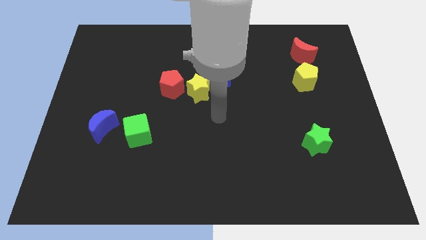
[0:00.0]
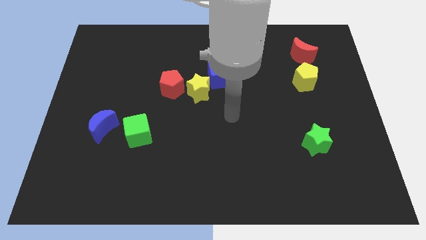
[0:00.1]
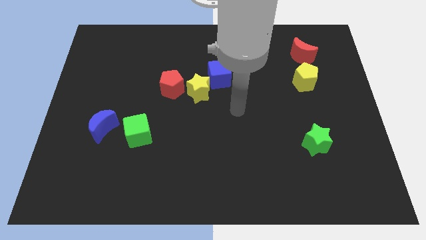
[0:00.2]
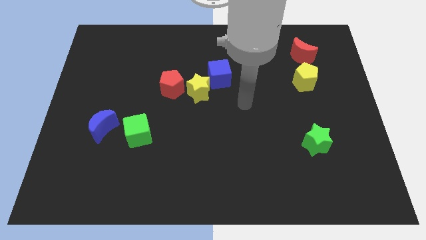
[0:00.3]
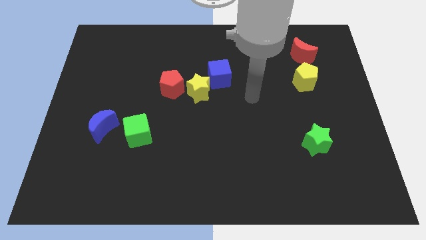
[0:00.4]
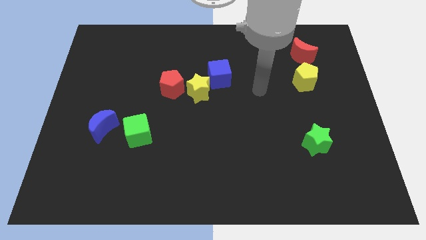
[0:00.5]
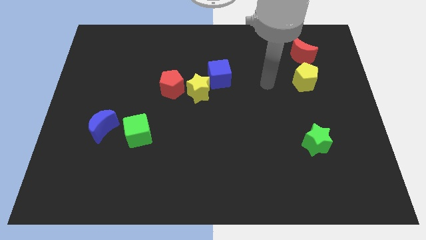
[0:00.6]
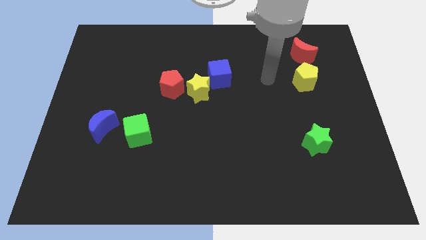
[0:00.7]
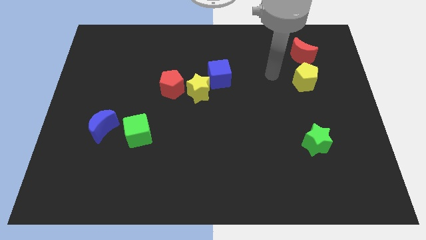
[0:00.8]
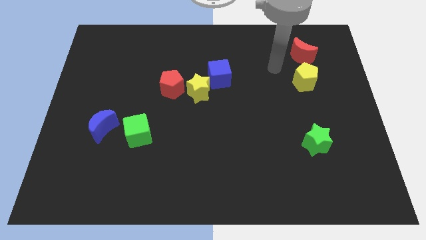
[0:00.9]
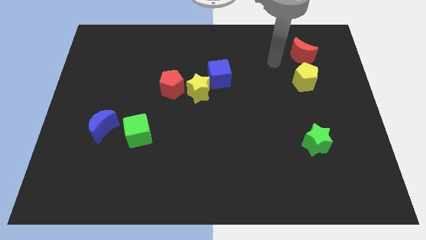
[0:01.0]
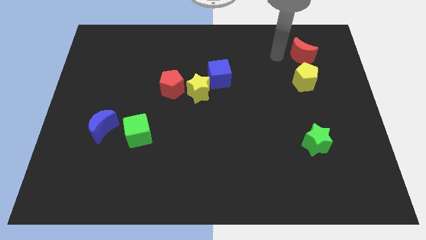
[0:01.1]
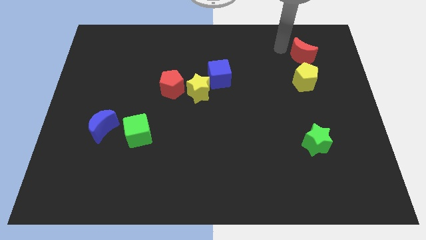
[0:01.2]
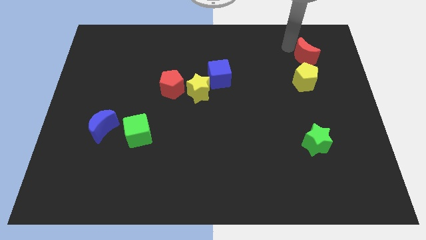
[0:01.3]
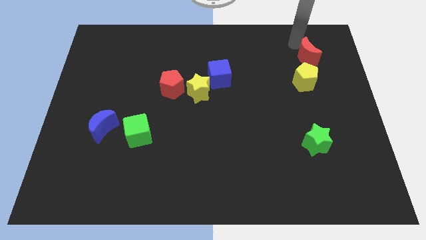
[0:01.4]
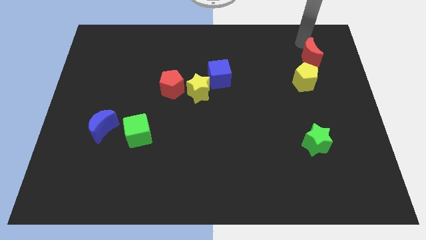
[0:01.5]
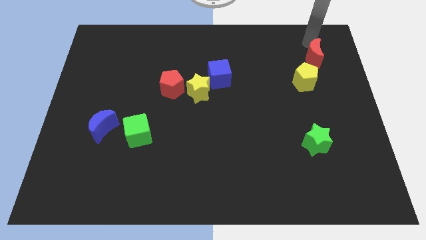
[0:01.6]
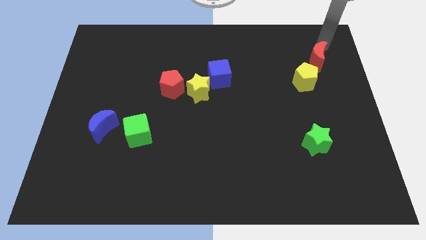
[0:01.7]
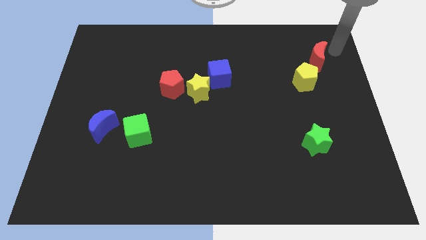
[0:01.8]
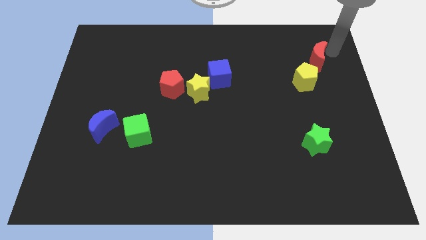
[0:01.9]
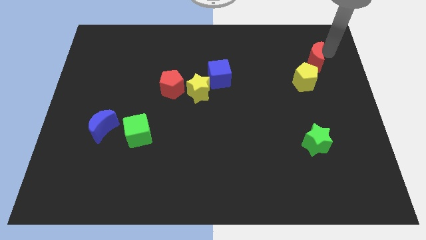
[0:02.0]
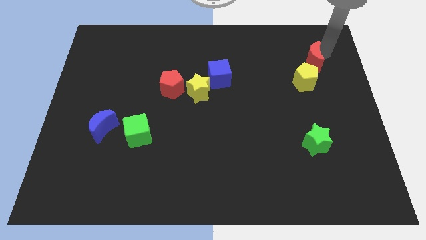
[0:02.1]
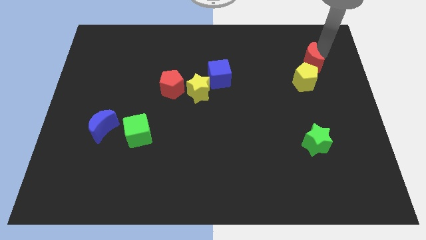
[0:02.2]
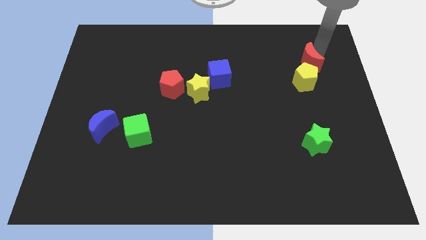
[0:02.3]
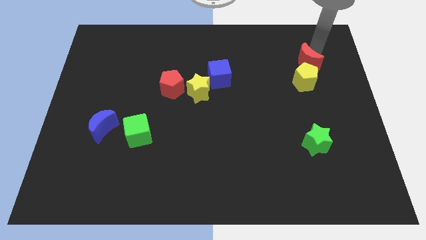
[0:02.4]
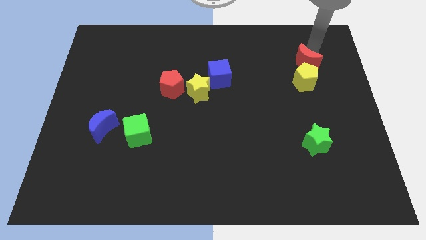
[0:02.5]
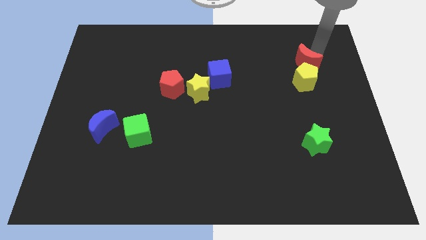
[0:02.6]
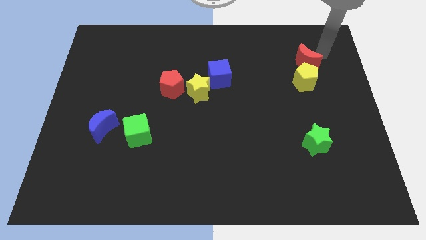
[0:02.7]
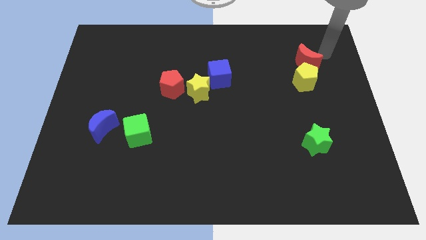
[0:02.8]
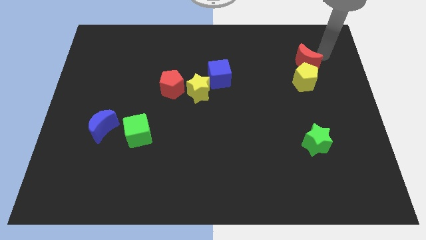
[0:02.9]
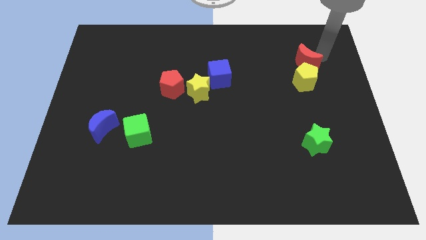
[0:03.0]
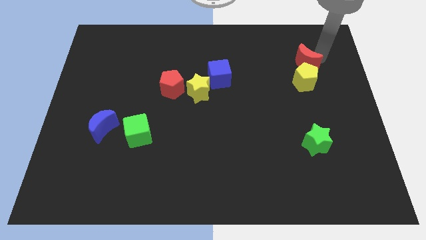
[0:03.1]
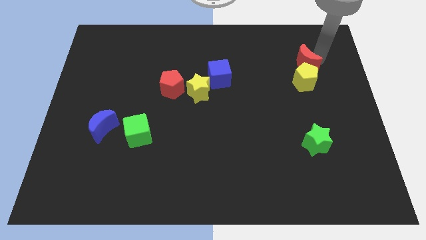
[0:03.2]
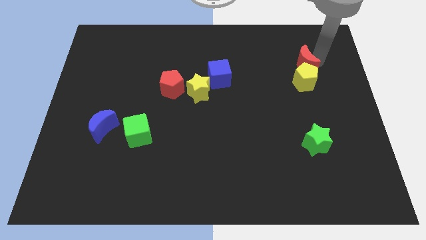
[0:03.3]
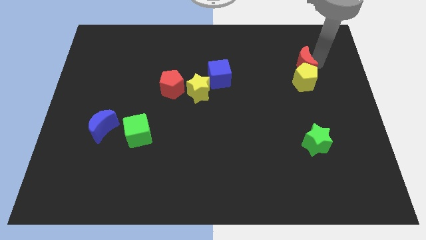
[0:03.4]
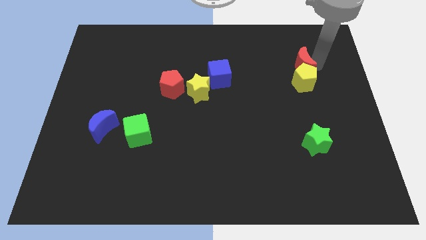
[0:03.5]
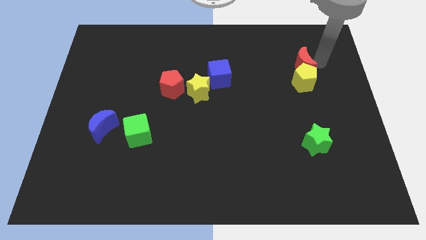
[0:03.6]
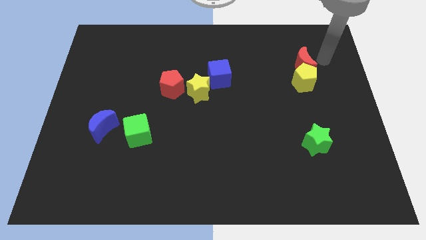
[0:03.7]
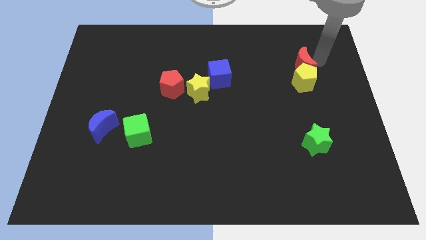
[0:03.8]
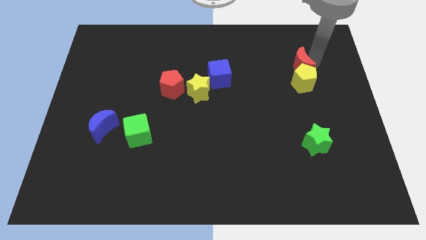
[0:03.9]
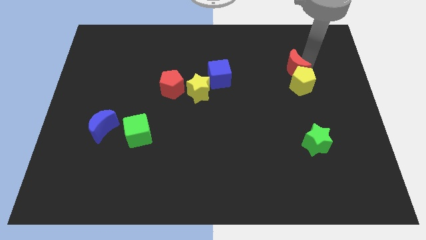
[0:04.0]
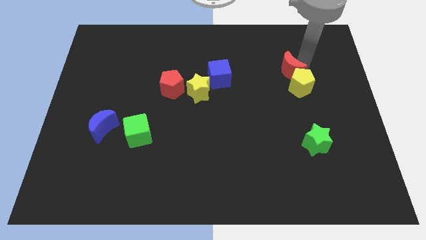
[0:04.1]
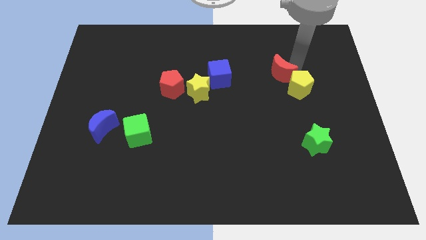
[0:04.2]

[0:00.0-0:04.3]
slightly push the red moon downwards and left

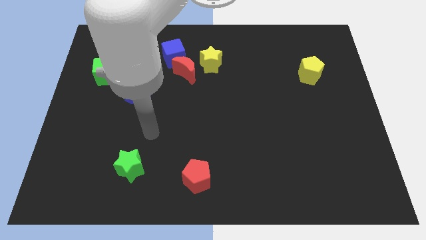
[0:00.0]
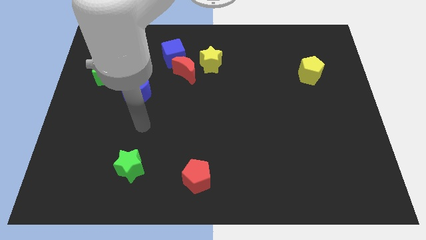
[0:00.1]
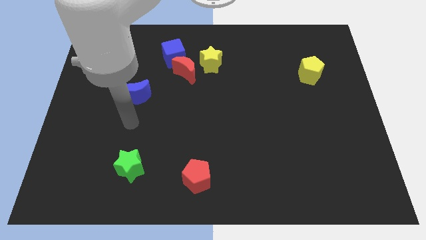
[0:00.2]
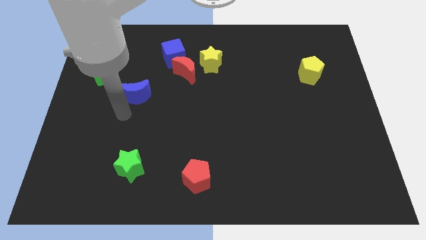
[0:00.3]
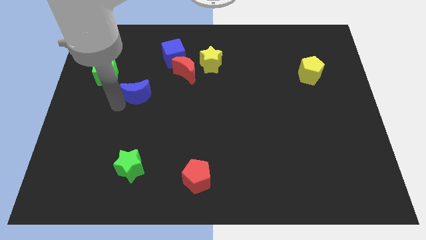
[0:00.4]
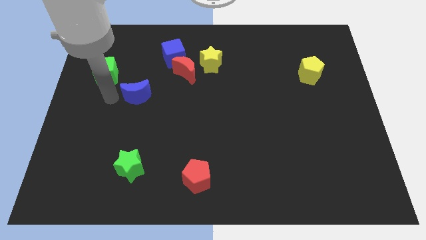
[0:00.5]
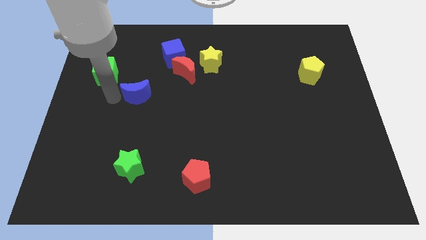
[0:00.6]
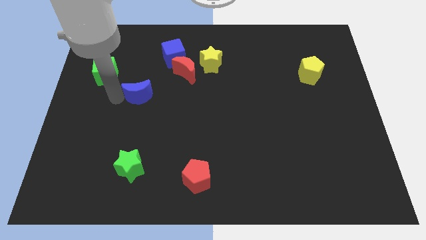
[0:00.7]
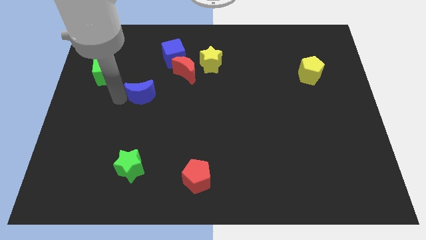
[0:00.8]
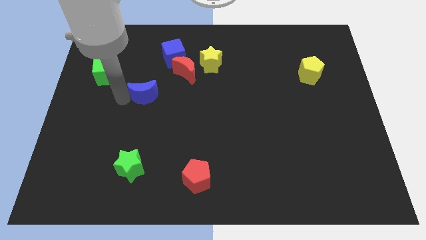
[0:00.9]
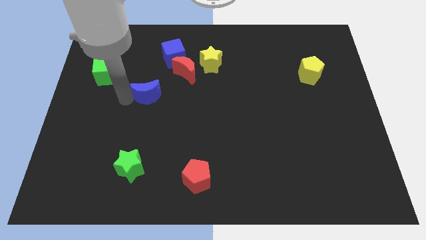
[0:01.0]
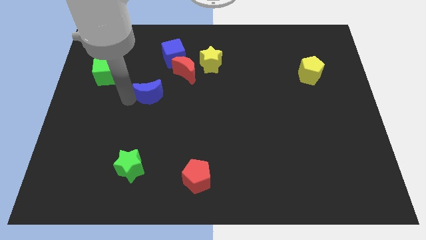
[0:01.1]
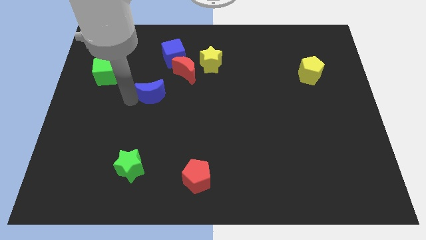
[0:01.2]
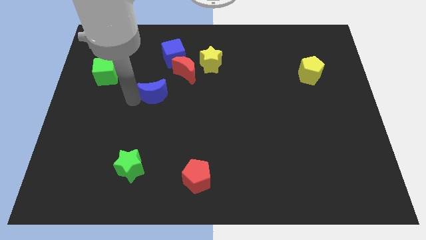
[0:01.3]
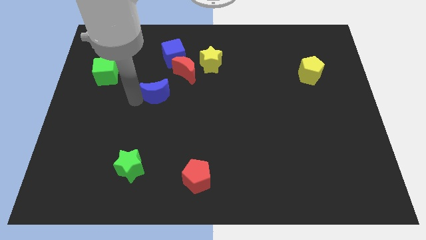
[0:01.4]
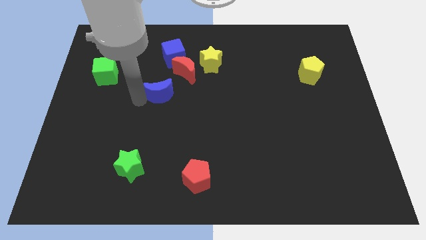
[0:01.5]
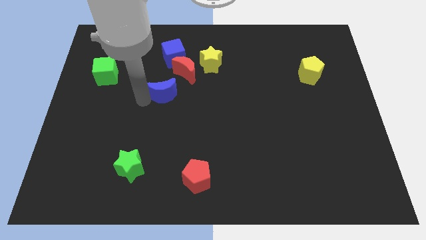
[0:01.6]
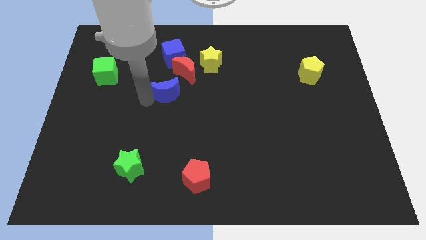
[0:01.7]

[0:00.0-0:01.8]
move the blue moon a little right

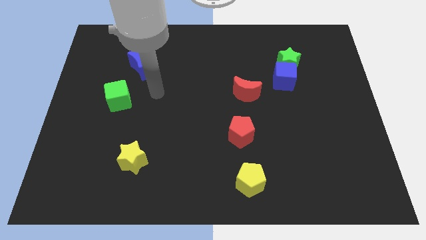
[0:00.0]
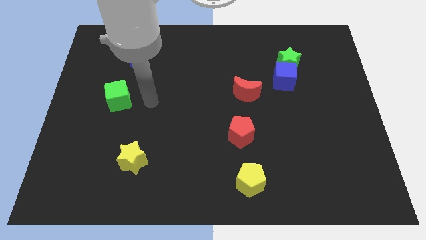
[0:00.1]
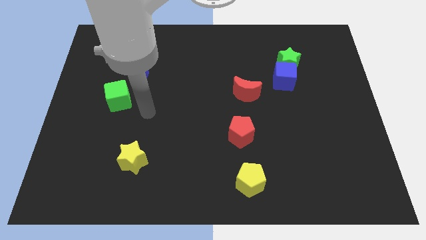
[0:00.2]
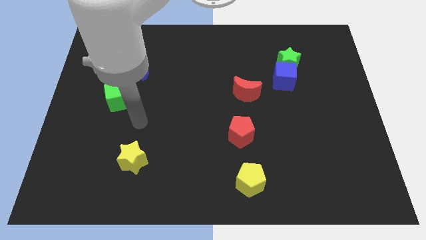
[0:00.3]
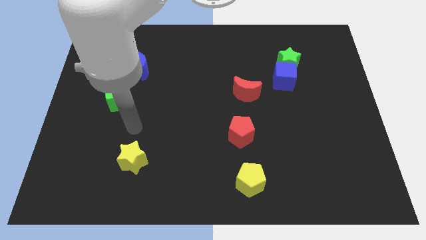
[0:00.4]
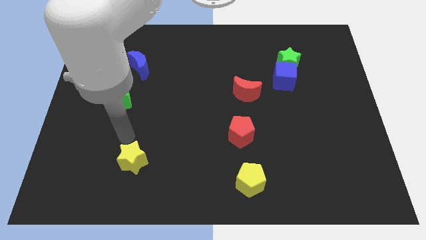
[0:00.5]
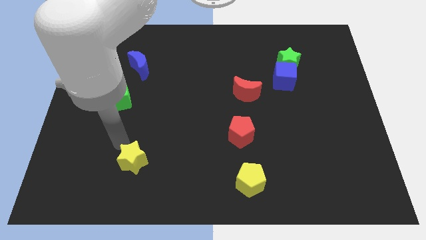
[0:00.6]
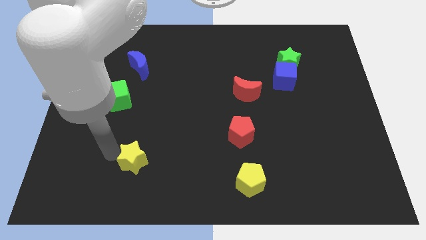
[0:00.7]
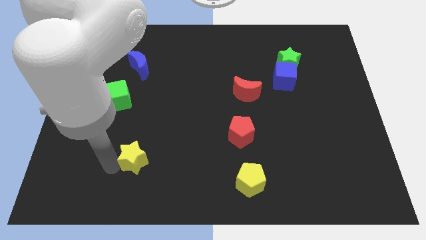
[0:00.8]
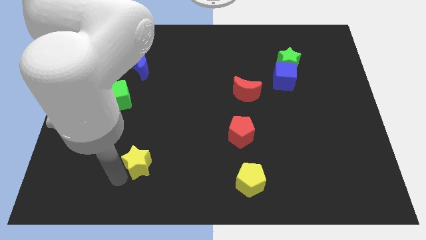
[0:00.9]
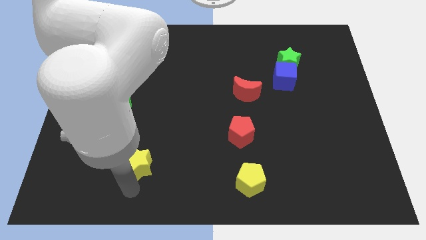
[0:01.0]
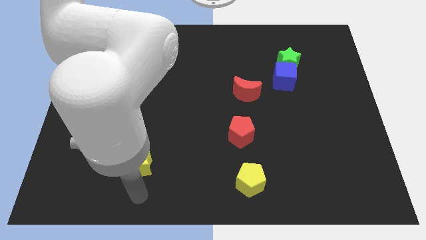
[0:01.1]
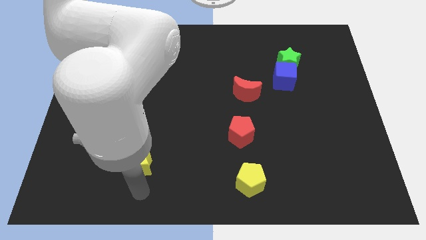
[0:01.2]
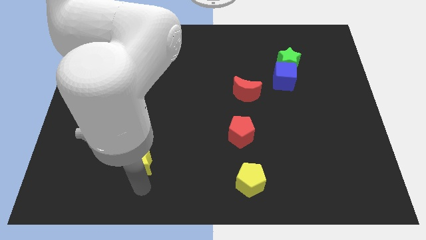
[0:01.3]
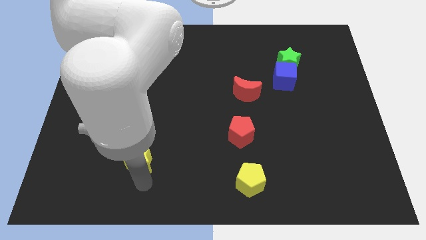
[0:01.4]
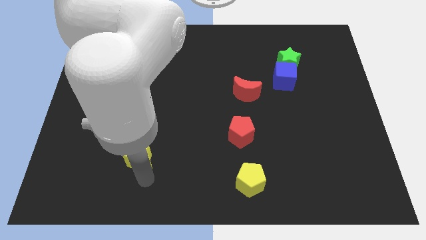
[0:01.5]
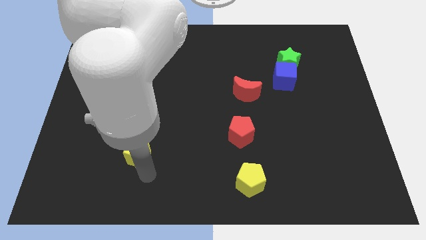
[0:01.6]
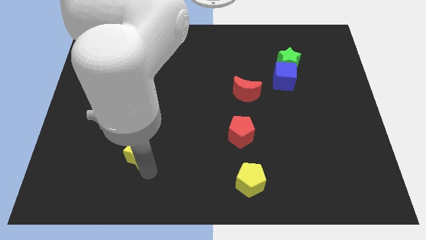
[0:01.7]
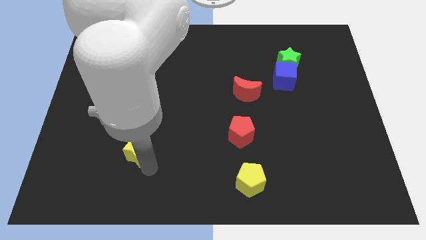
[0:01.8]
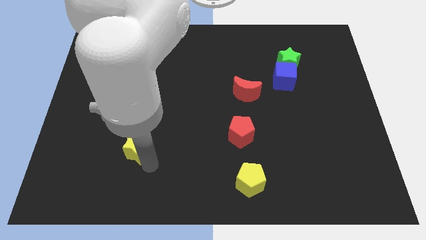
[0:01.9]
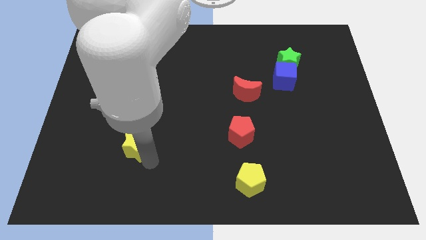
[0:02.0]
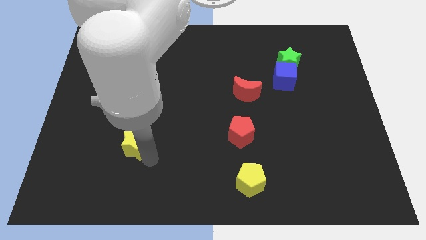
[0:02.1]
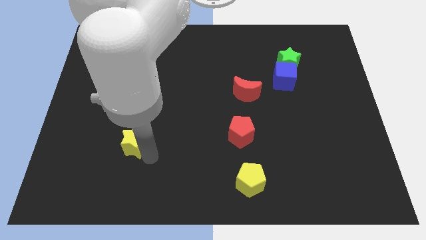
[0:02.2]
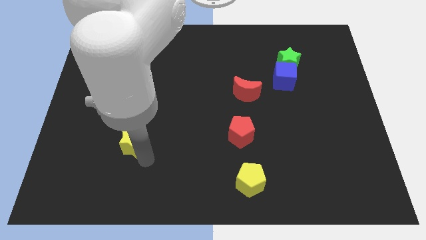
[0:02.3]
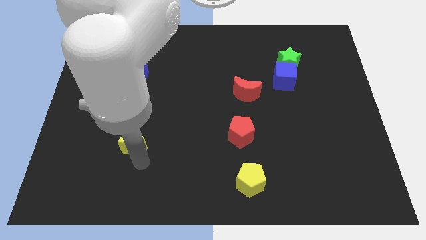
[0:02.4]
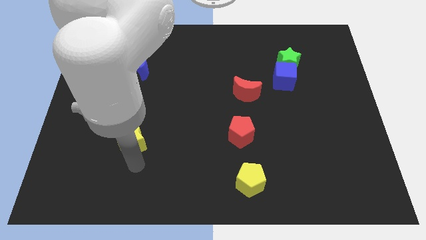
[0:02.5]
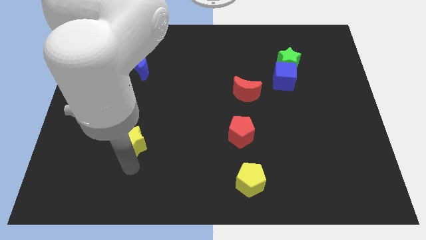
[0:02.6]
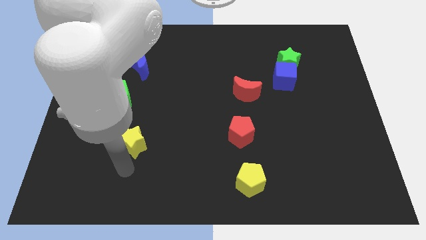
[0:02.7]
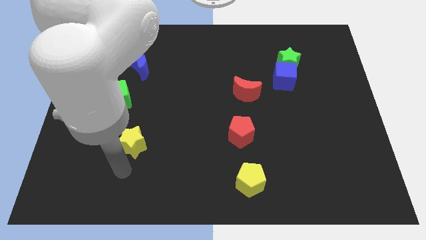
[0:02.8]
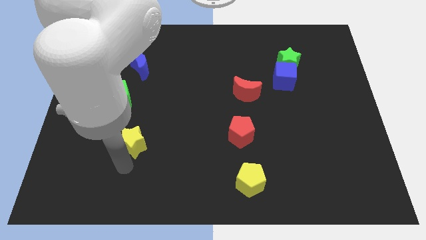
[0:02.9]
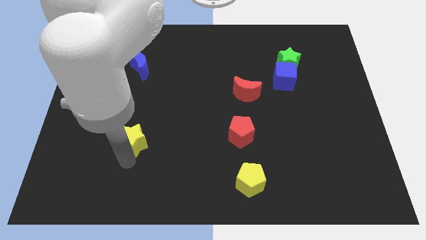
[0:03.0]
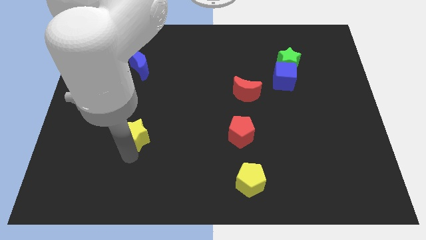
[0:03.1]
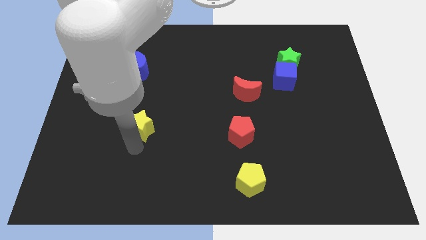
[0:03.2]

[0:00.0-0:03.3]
push the yellow star upwards slightly
